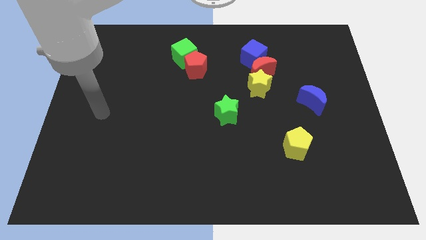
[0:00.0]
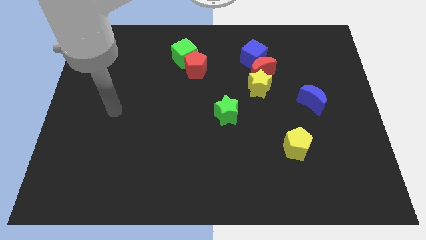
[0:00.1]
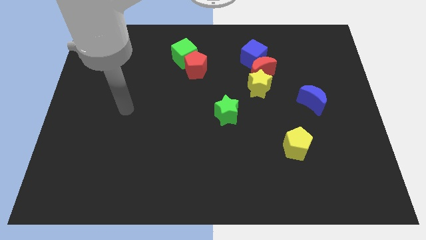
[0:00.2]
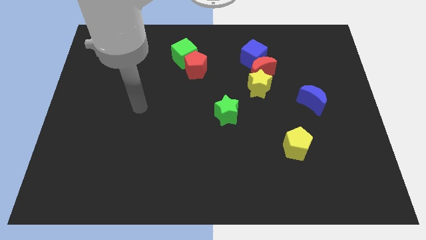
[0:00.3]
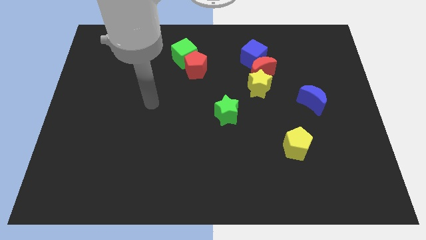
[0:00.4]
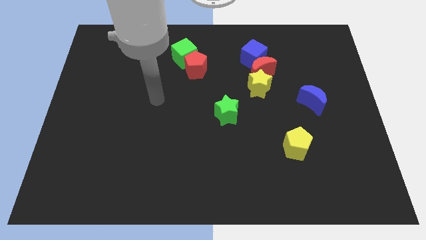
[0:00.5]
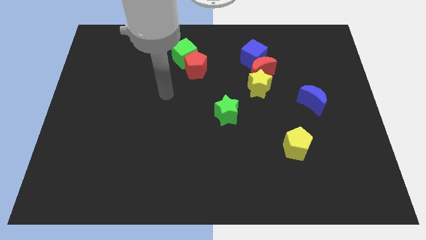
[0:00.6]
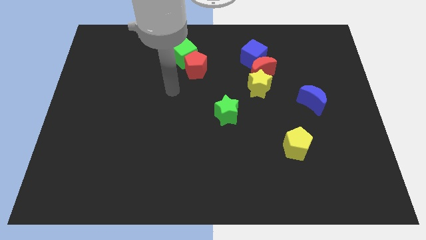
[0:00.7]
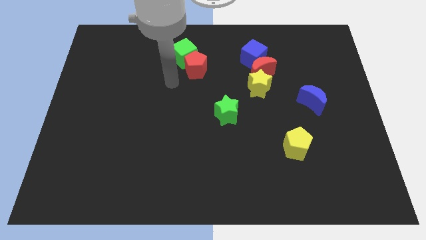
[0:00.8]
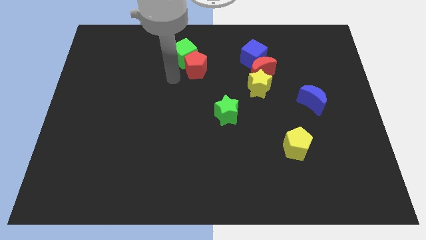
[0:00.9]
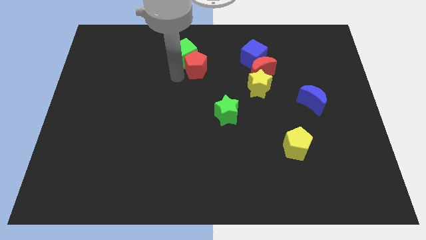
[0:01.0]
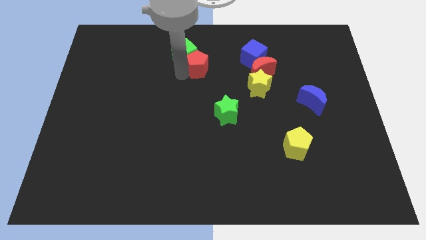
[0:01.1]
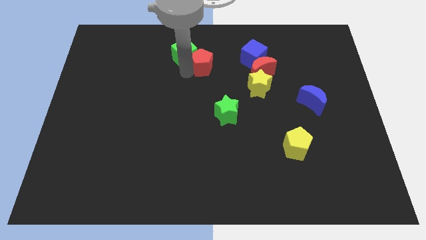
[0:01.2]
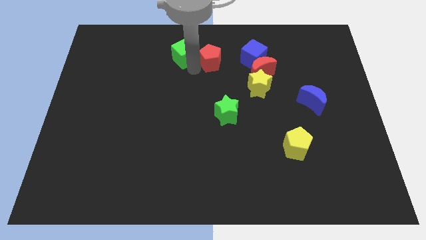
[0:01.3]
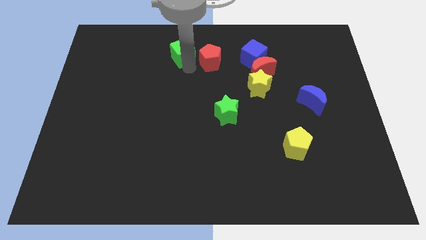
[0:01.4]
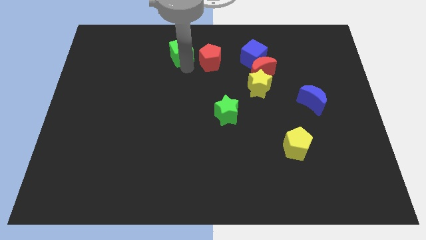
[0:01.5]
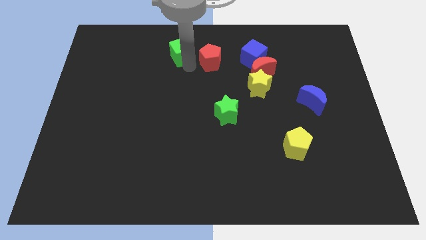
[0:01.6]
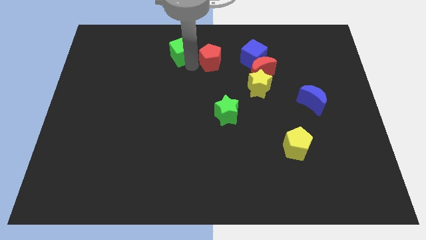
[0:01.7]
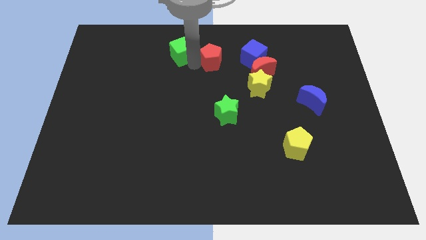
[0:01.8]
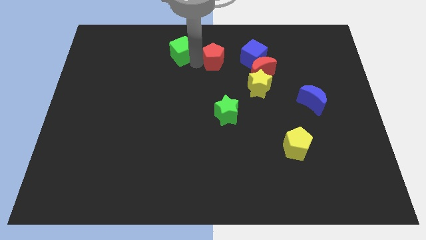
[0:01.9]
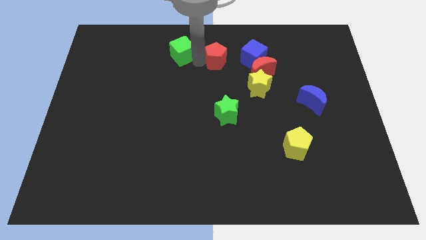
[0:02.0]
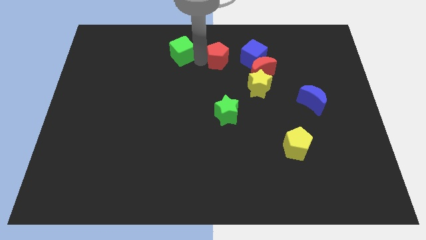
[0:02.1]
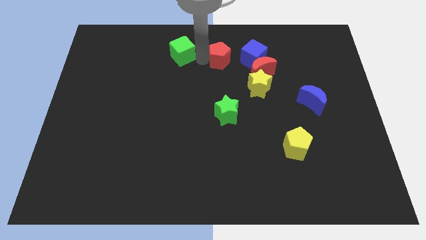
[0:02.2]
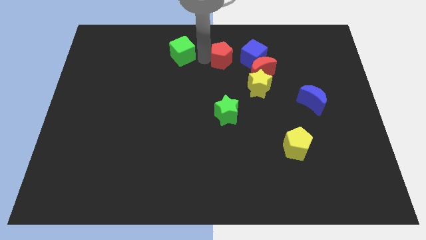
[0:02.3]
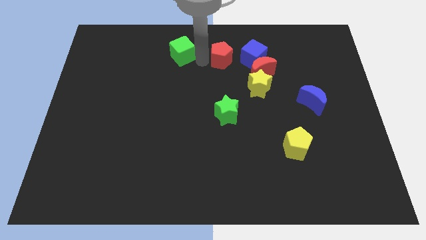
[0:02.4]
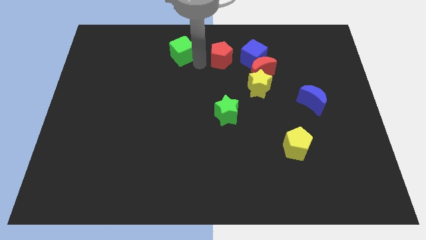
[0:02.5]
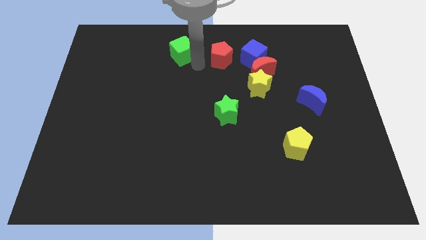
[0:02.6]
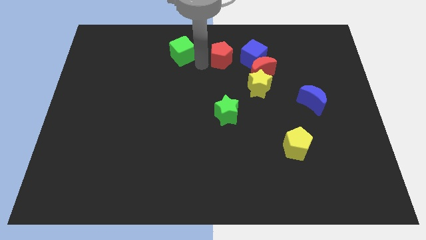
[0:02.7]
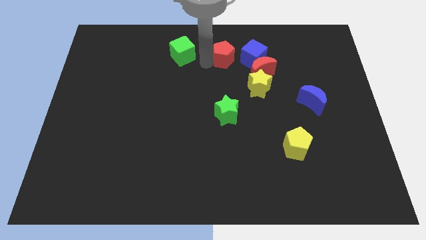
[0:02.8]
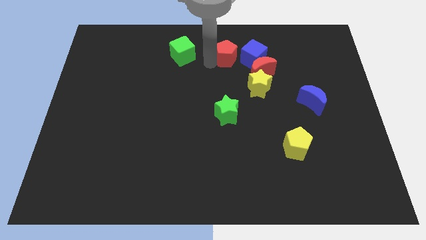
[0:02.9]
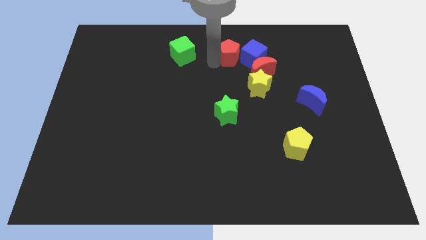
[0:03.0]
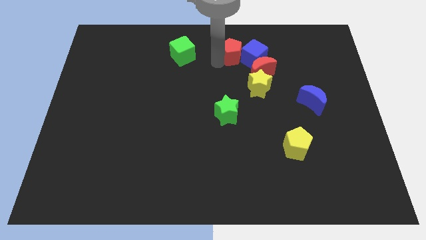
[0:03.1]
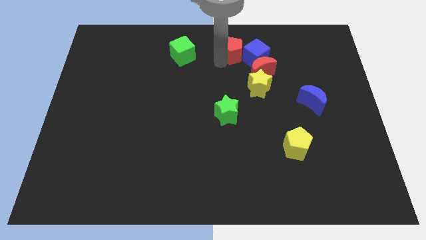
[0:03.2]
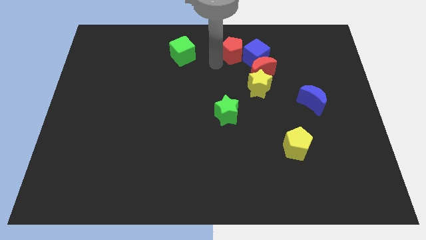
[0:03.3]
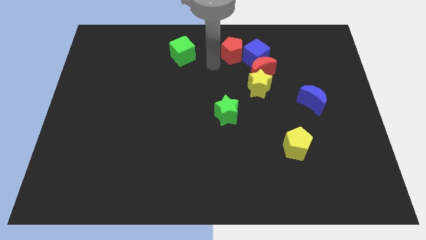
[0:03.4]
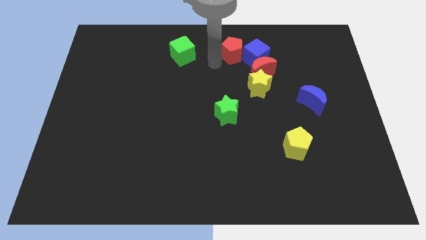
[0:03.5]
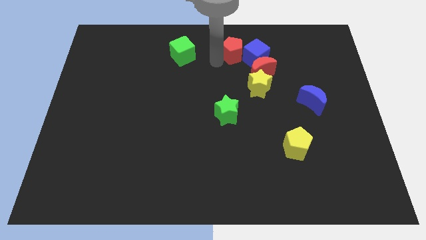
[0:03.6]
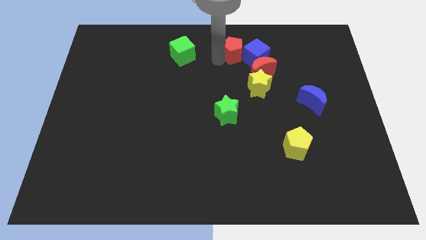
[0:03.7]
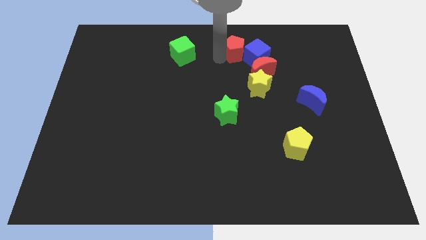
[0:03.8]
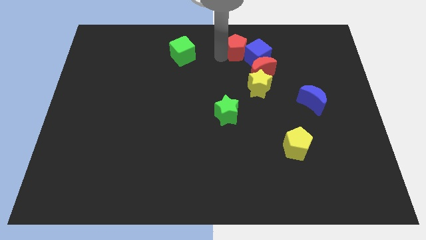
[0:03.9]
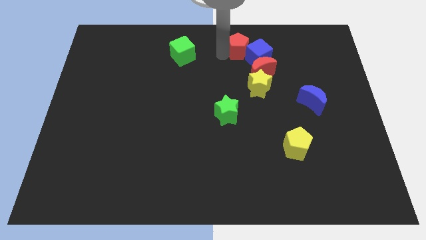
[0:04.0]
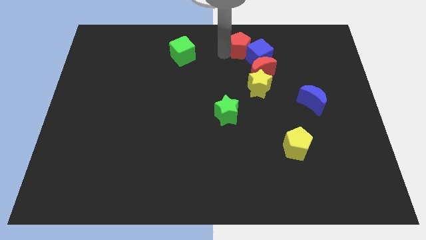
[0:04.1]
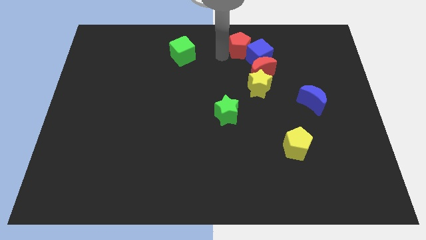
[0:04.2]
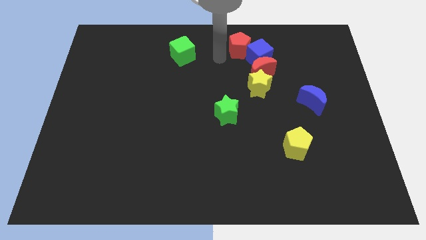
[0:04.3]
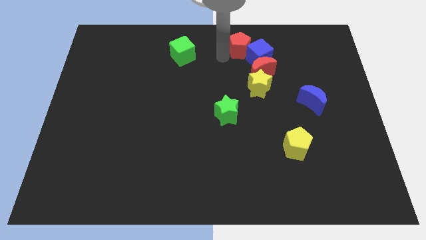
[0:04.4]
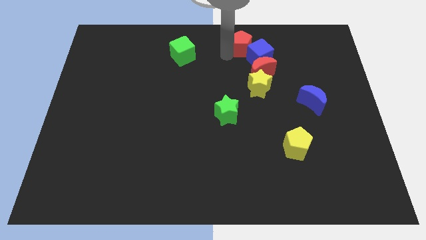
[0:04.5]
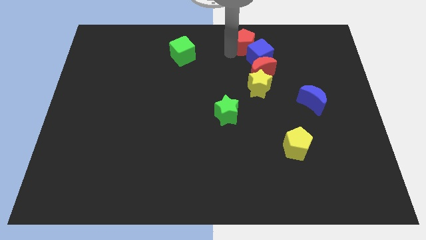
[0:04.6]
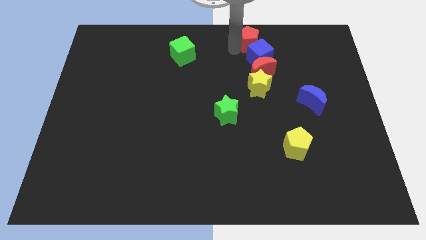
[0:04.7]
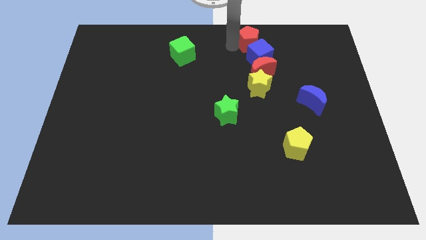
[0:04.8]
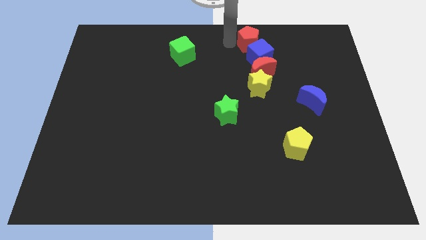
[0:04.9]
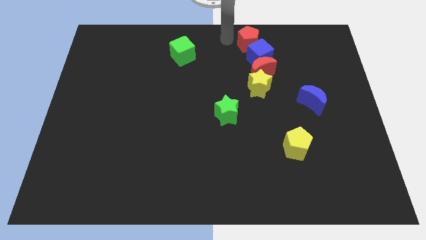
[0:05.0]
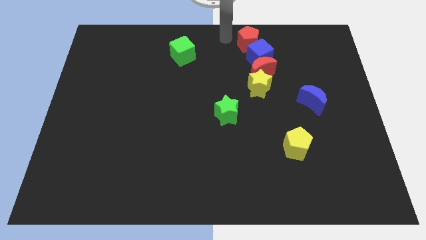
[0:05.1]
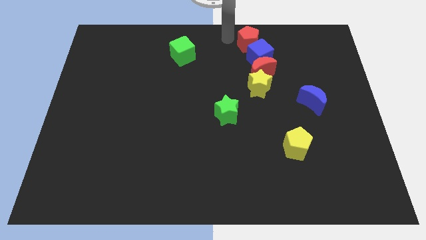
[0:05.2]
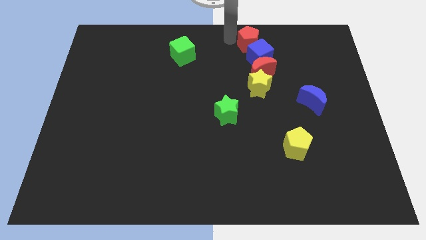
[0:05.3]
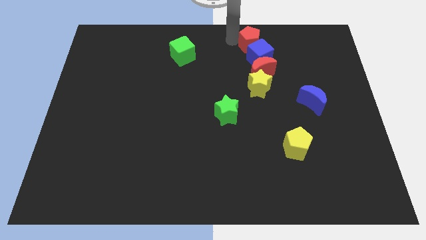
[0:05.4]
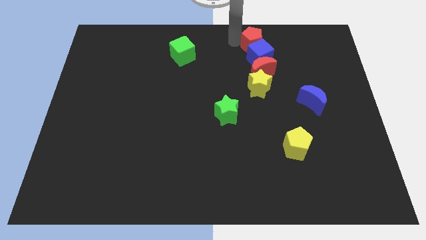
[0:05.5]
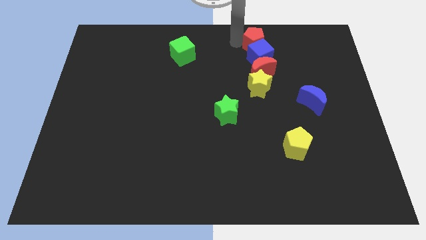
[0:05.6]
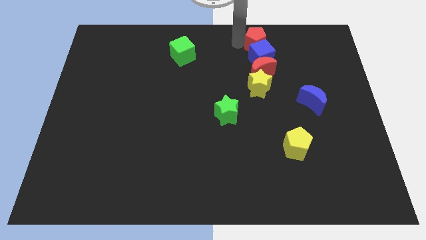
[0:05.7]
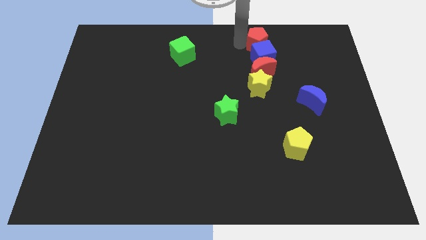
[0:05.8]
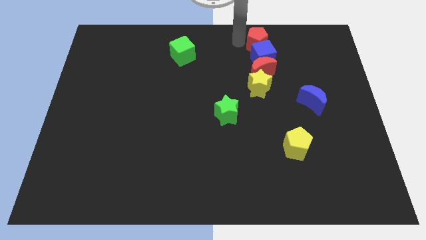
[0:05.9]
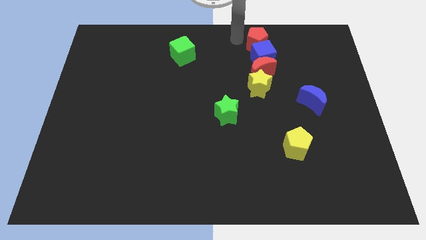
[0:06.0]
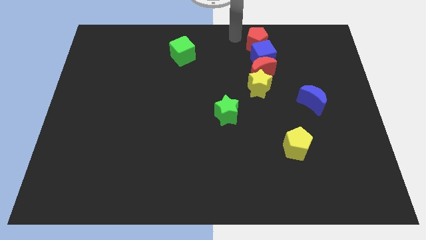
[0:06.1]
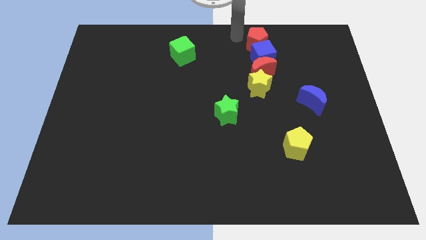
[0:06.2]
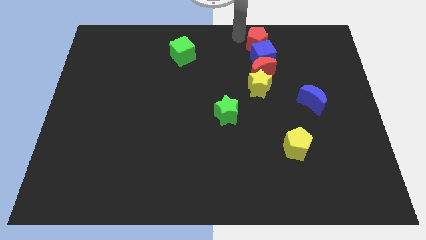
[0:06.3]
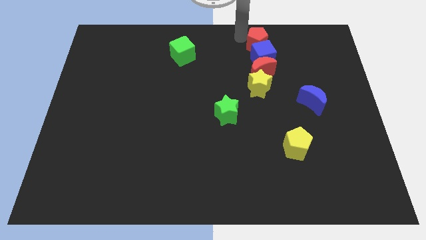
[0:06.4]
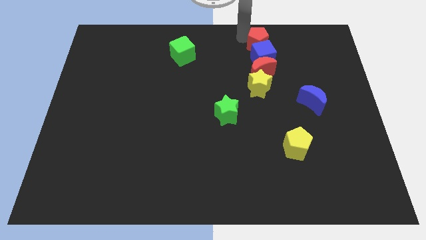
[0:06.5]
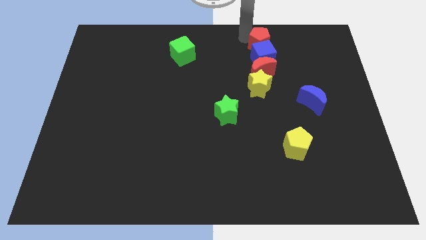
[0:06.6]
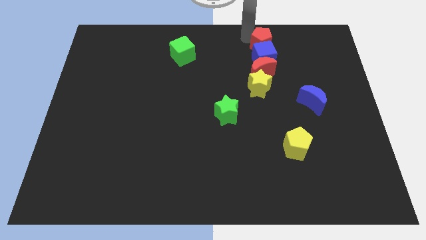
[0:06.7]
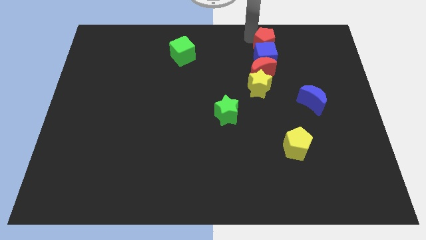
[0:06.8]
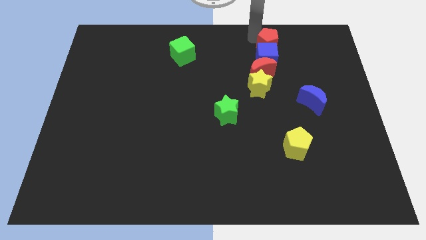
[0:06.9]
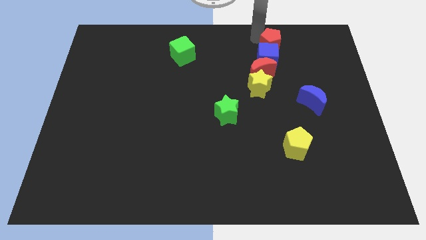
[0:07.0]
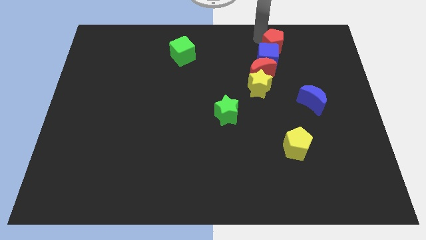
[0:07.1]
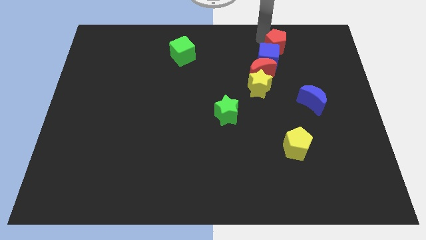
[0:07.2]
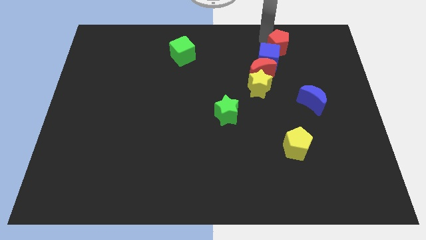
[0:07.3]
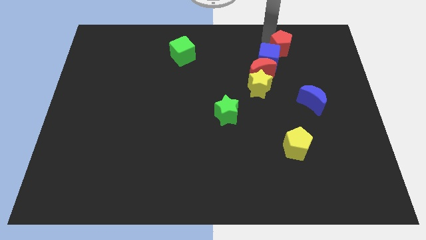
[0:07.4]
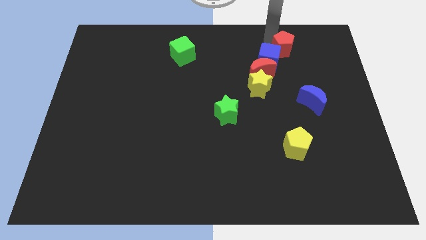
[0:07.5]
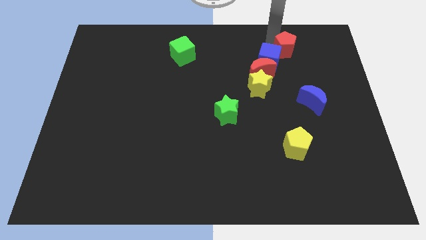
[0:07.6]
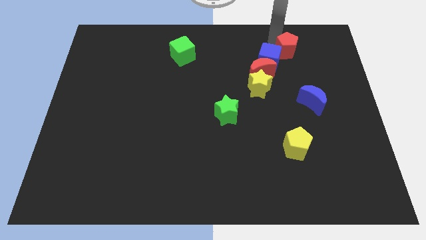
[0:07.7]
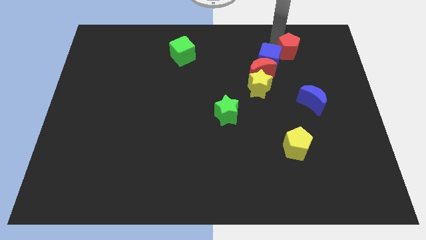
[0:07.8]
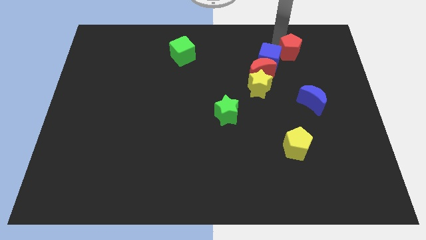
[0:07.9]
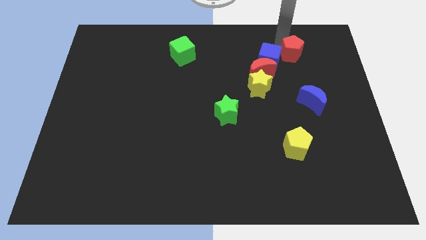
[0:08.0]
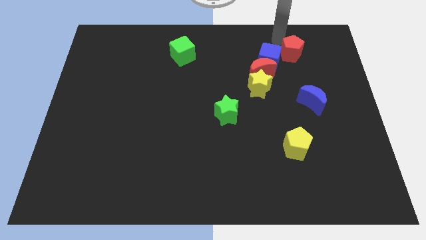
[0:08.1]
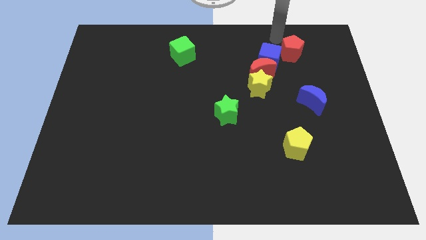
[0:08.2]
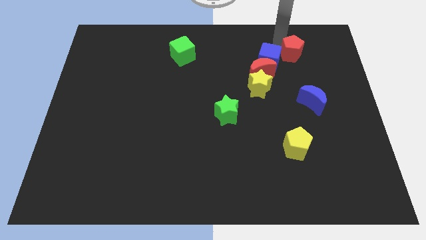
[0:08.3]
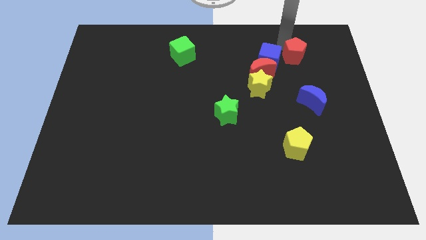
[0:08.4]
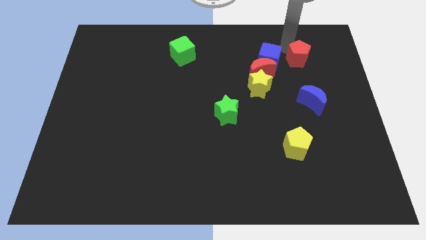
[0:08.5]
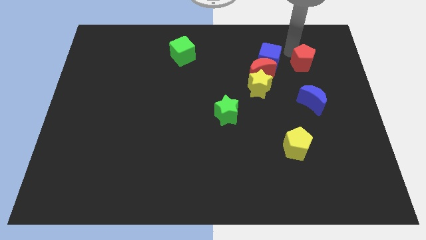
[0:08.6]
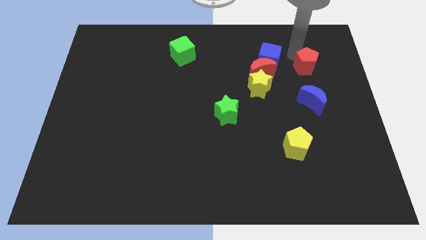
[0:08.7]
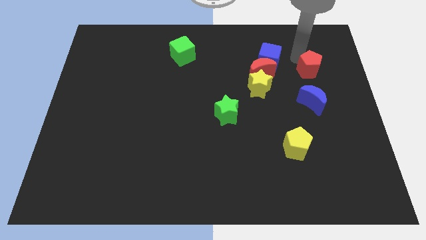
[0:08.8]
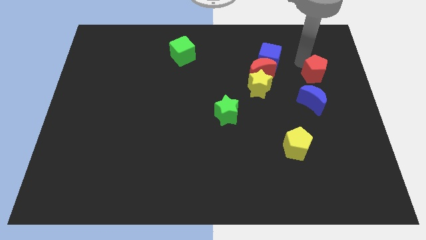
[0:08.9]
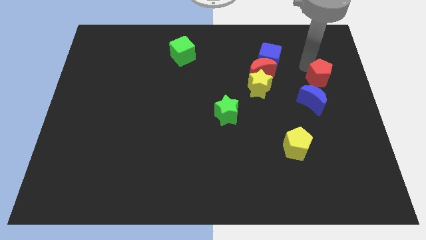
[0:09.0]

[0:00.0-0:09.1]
slide the red pentagon to the top right of the blue moon
